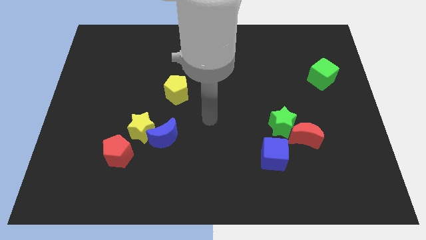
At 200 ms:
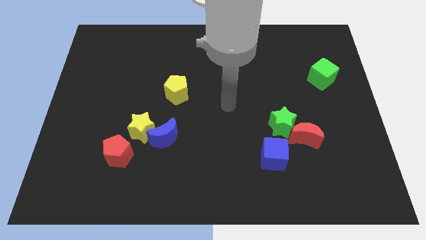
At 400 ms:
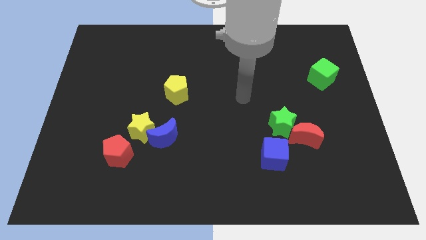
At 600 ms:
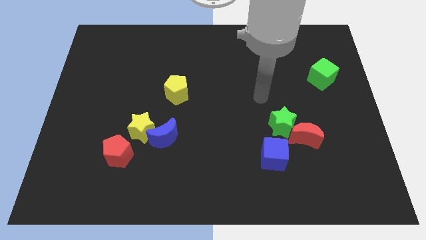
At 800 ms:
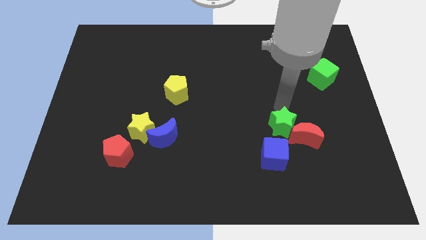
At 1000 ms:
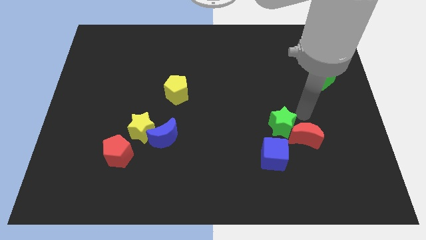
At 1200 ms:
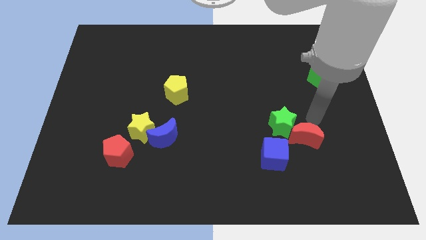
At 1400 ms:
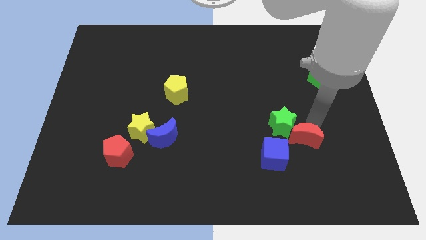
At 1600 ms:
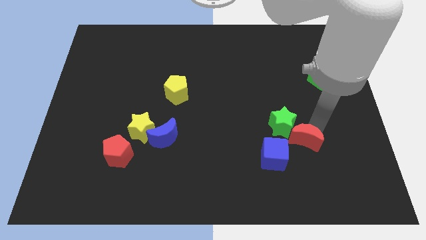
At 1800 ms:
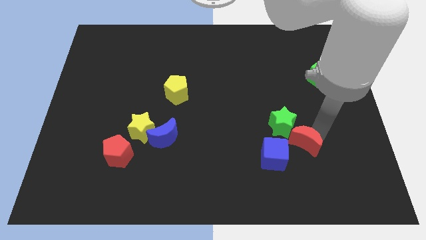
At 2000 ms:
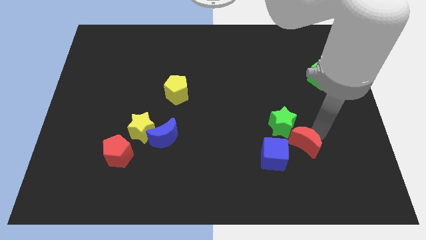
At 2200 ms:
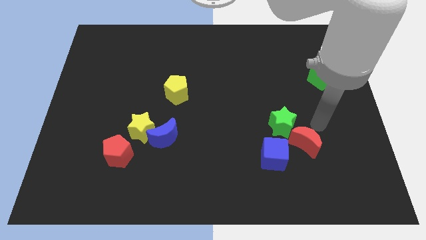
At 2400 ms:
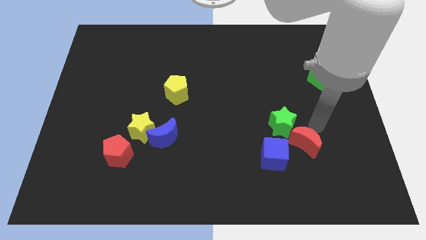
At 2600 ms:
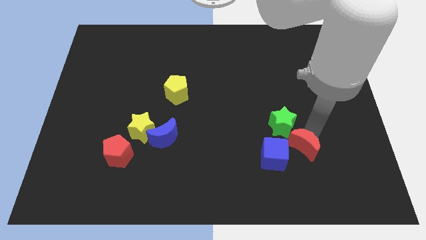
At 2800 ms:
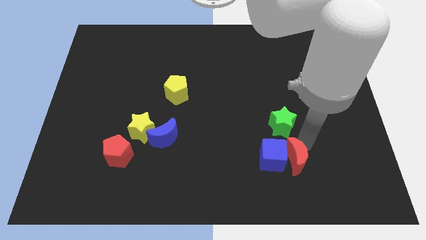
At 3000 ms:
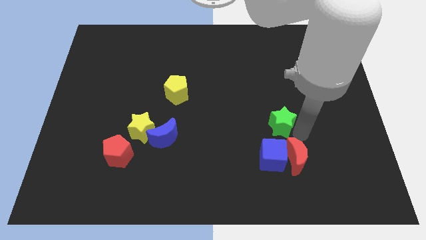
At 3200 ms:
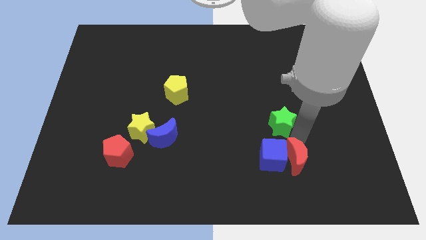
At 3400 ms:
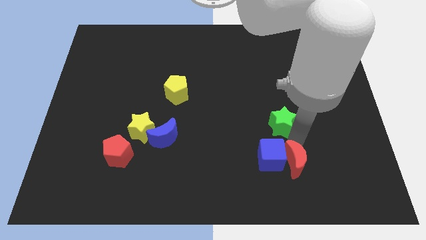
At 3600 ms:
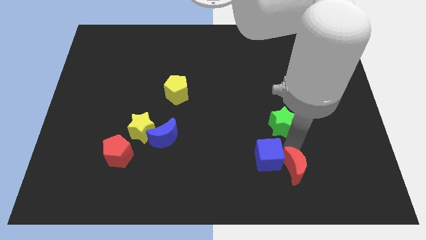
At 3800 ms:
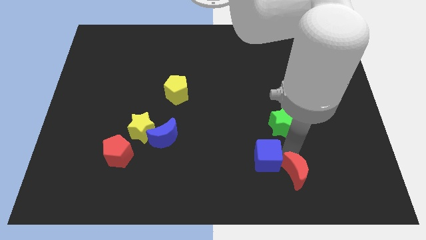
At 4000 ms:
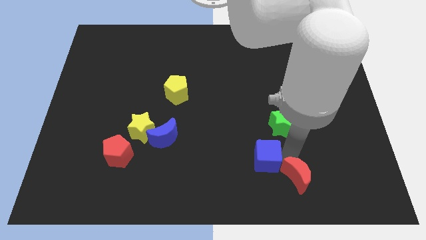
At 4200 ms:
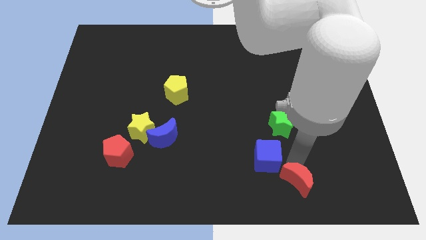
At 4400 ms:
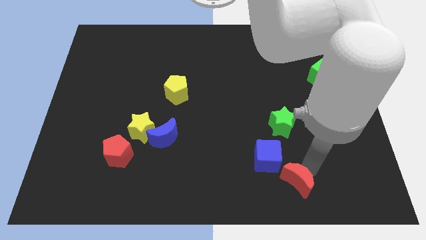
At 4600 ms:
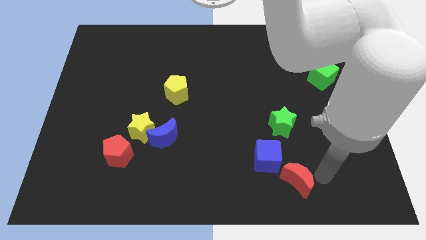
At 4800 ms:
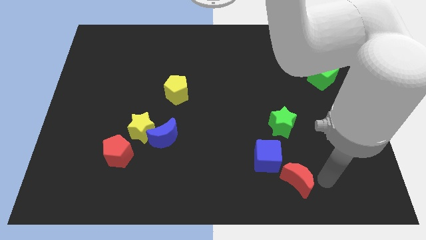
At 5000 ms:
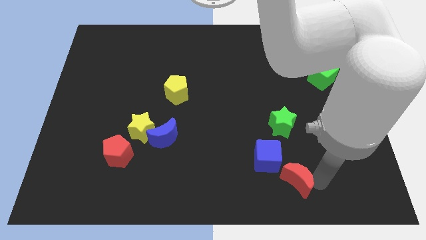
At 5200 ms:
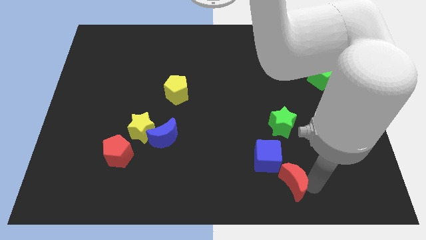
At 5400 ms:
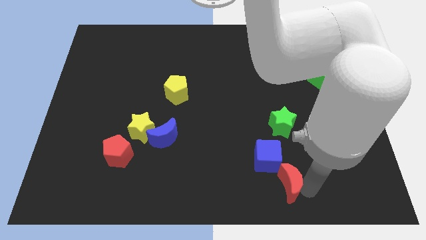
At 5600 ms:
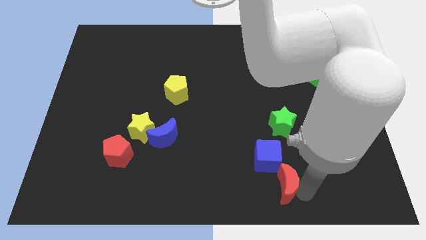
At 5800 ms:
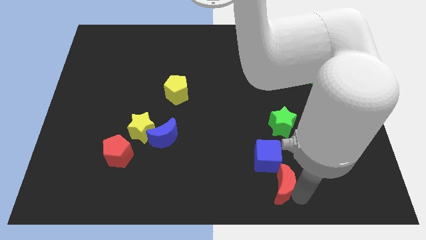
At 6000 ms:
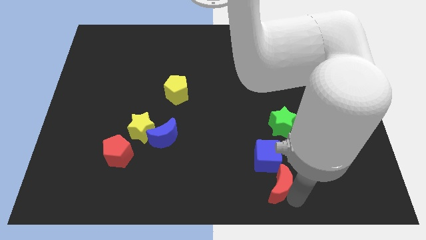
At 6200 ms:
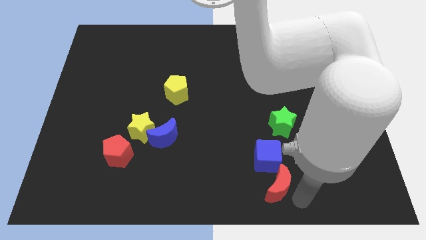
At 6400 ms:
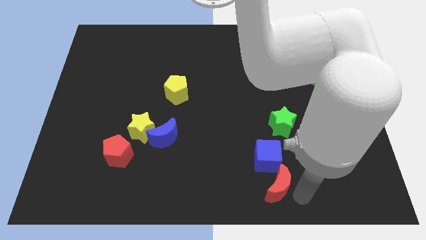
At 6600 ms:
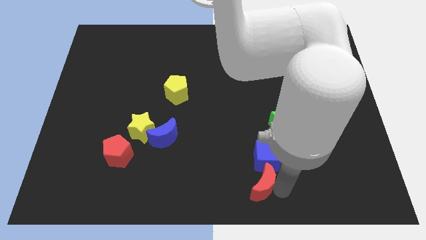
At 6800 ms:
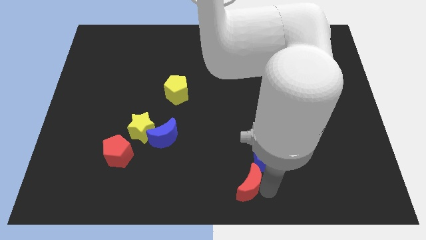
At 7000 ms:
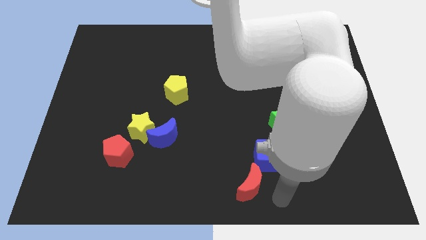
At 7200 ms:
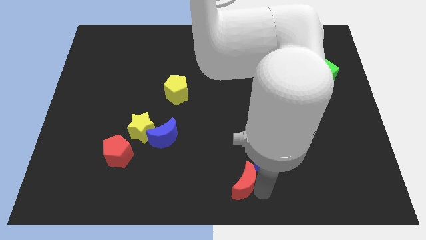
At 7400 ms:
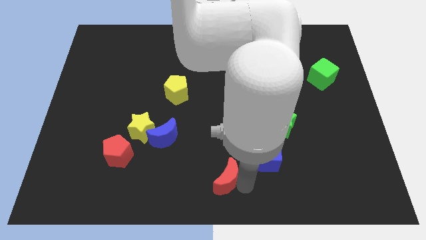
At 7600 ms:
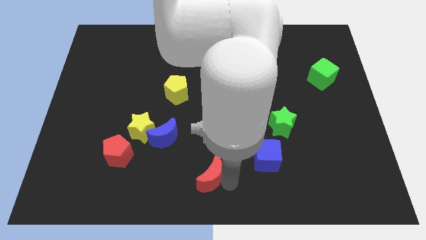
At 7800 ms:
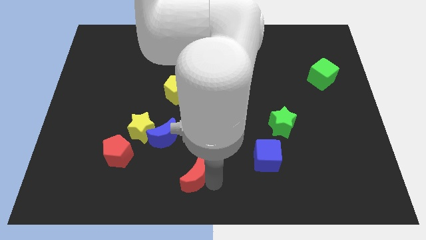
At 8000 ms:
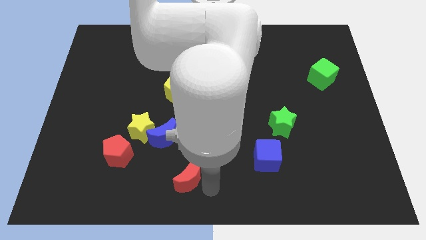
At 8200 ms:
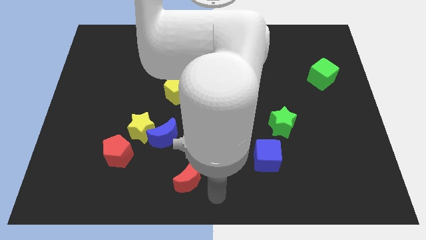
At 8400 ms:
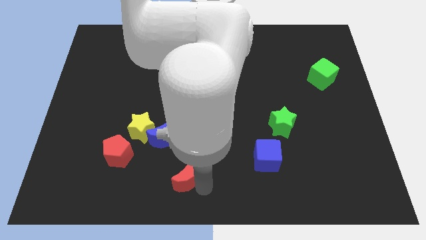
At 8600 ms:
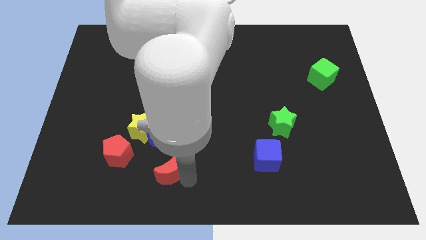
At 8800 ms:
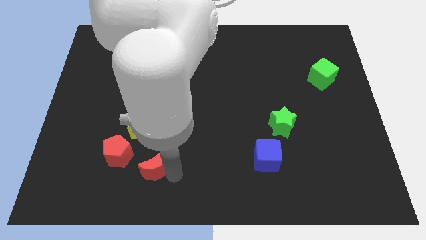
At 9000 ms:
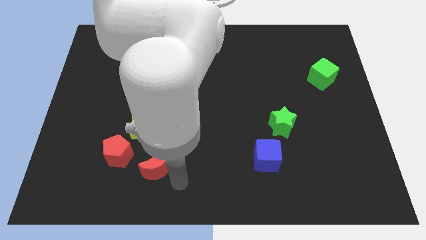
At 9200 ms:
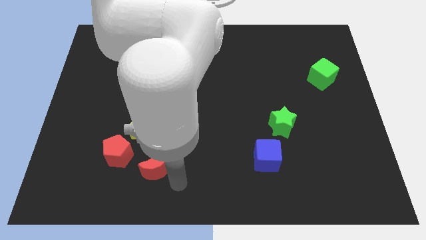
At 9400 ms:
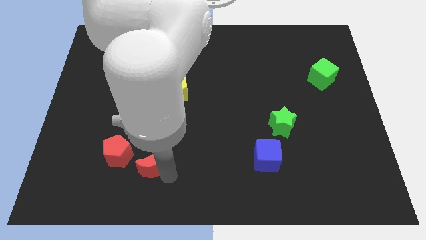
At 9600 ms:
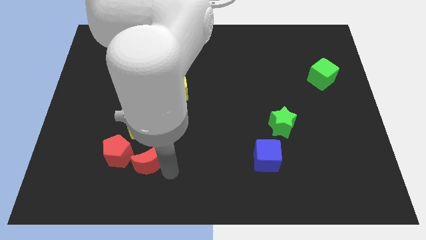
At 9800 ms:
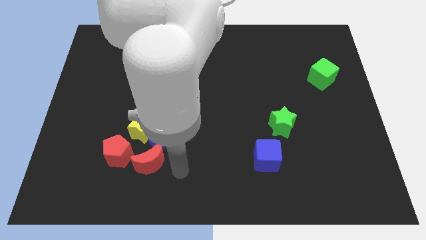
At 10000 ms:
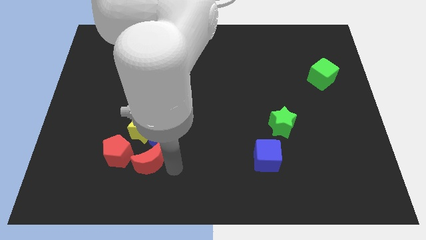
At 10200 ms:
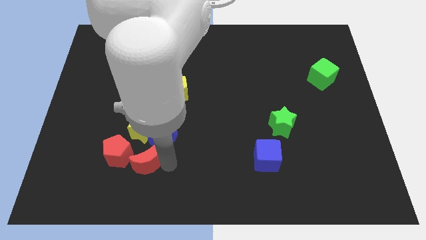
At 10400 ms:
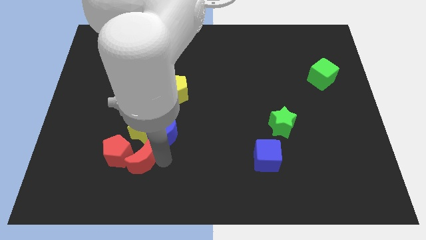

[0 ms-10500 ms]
push the red moon towards the red pentagon

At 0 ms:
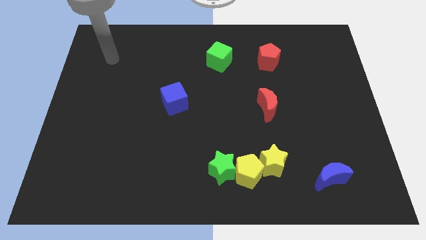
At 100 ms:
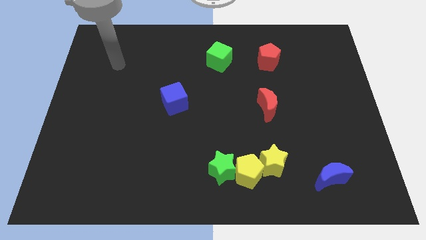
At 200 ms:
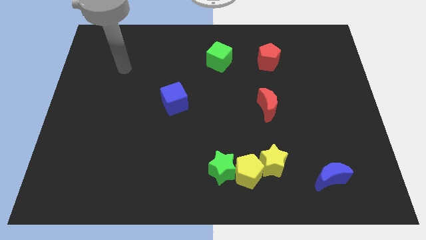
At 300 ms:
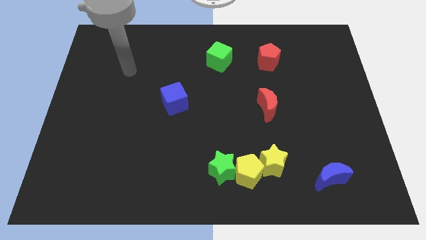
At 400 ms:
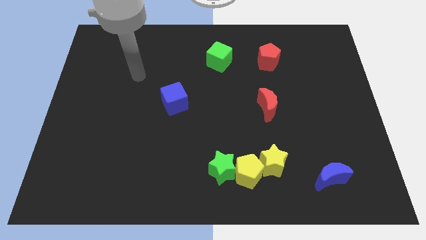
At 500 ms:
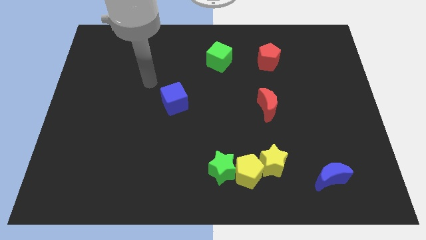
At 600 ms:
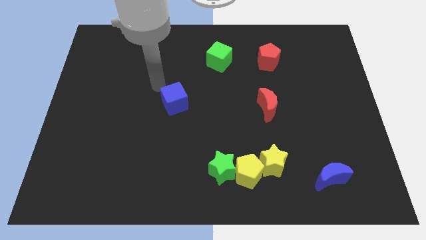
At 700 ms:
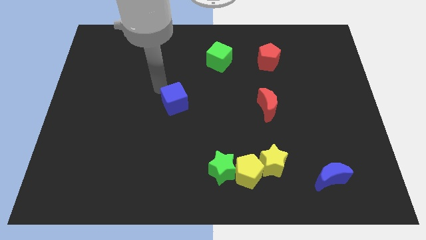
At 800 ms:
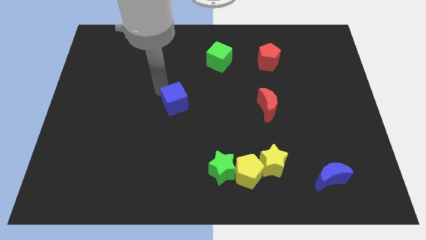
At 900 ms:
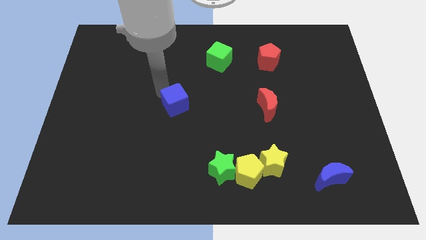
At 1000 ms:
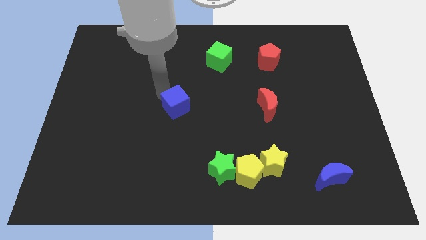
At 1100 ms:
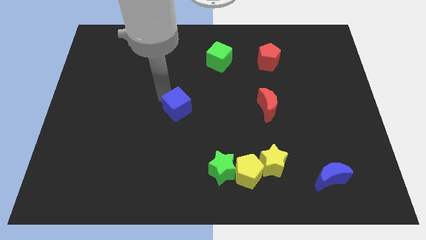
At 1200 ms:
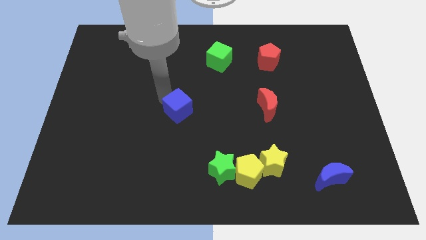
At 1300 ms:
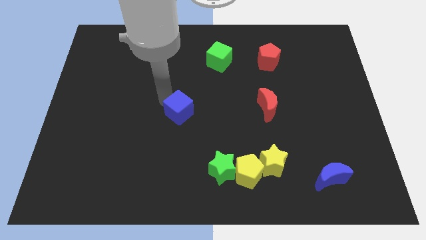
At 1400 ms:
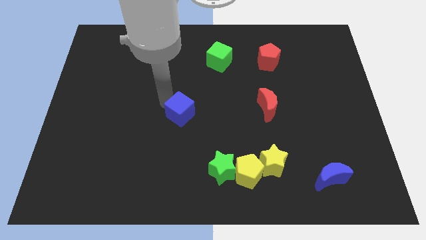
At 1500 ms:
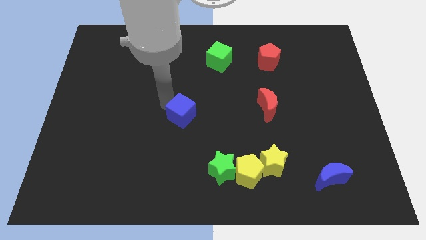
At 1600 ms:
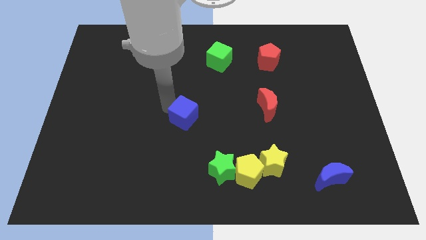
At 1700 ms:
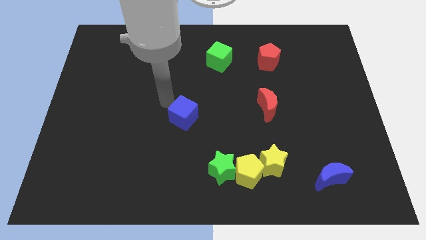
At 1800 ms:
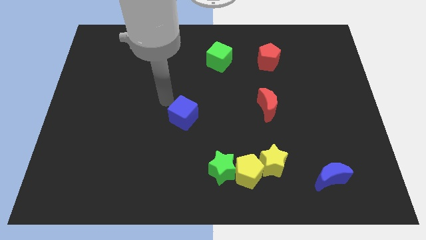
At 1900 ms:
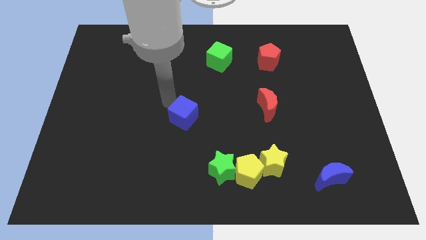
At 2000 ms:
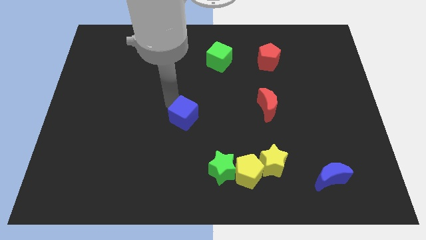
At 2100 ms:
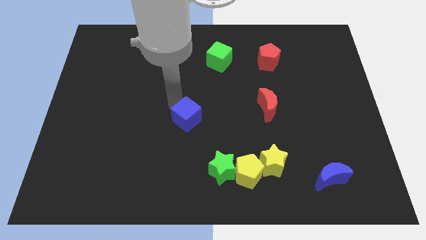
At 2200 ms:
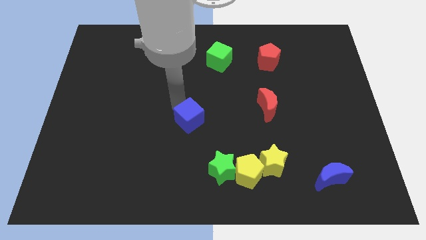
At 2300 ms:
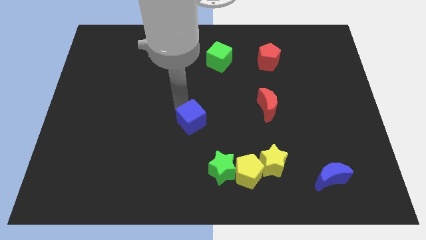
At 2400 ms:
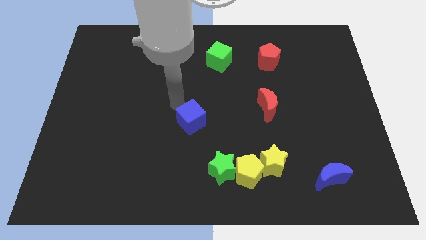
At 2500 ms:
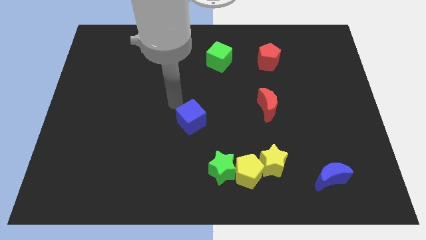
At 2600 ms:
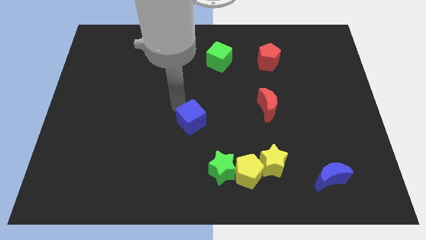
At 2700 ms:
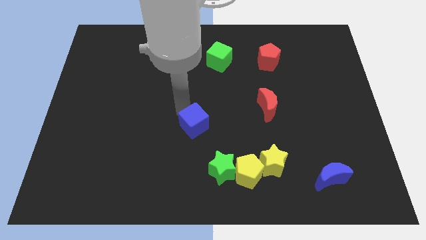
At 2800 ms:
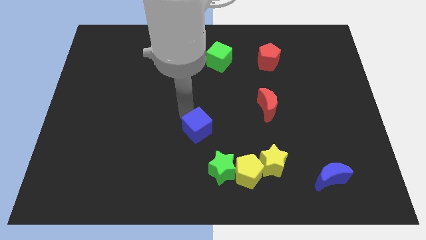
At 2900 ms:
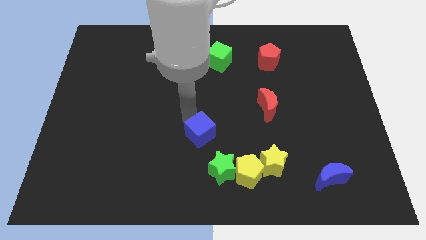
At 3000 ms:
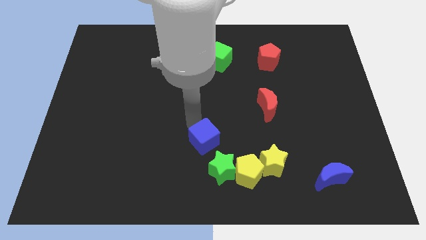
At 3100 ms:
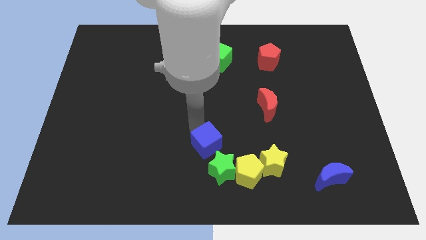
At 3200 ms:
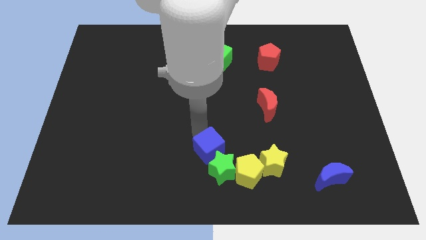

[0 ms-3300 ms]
move the blue cube next to the green star
